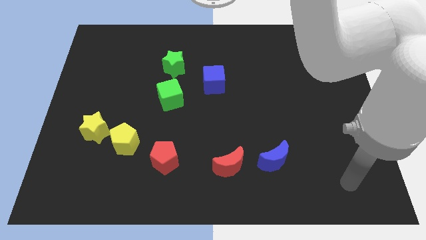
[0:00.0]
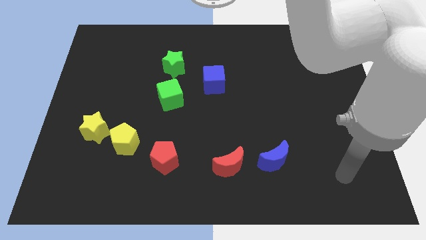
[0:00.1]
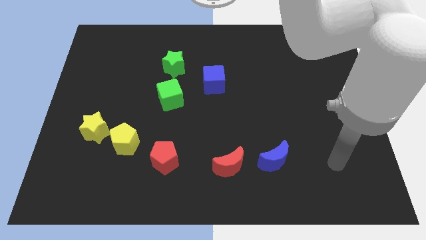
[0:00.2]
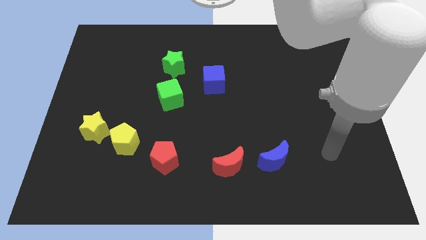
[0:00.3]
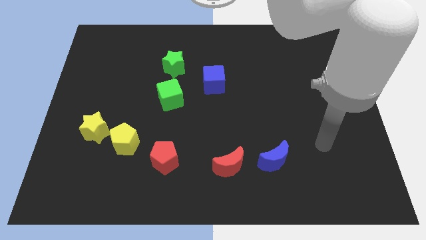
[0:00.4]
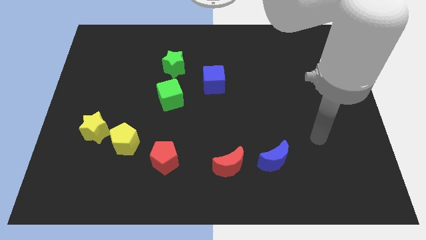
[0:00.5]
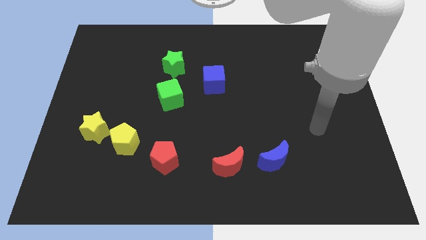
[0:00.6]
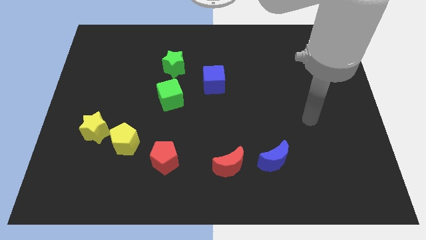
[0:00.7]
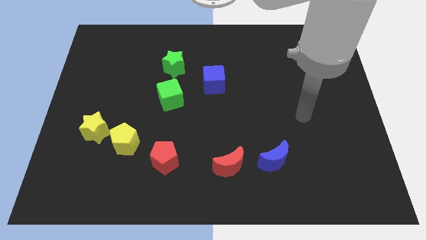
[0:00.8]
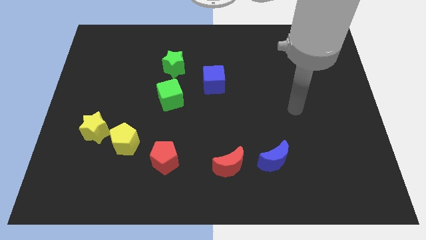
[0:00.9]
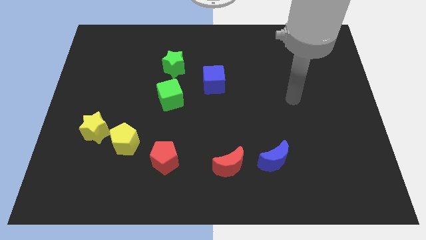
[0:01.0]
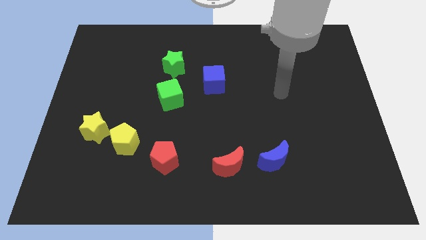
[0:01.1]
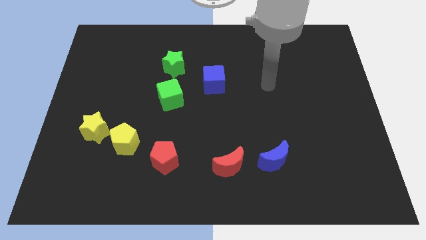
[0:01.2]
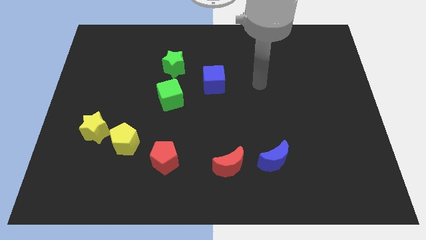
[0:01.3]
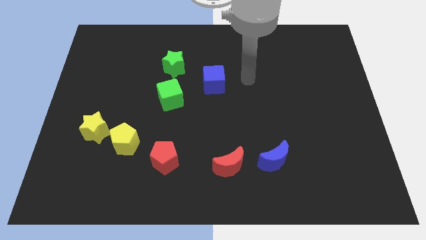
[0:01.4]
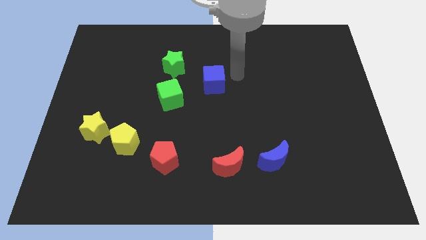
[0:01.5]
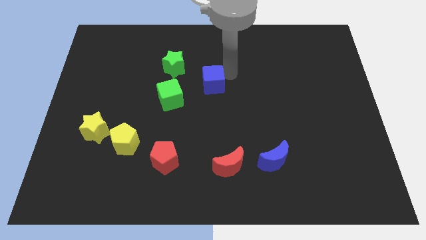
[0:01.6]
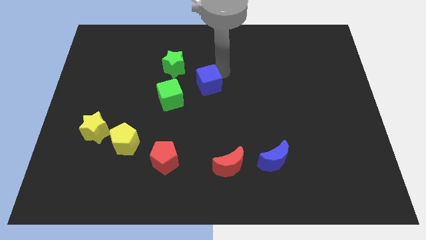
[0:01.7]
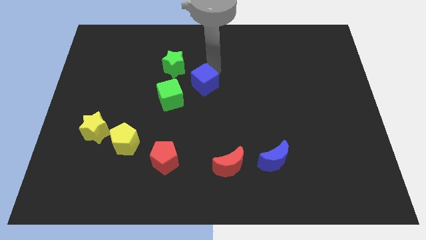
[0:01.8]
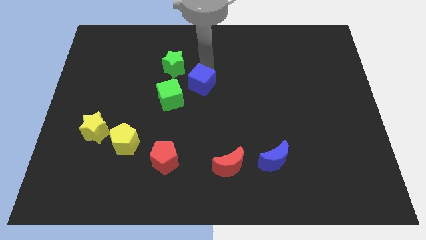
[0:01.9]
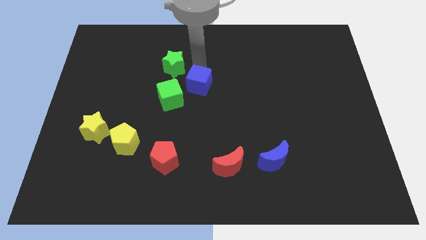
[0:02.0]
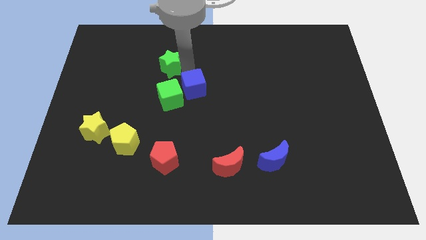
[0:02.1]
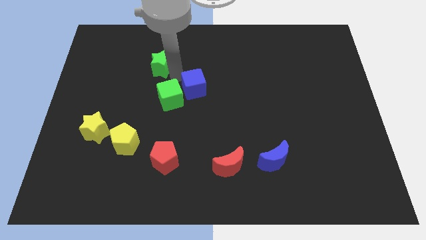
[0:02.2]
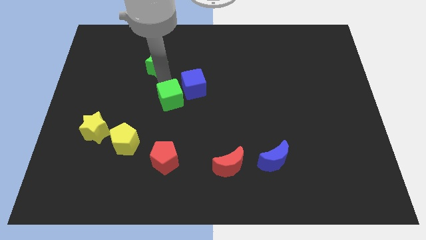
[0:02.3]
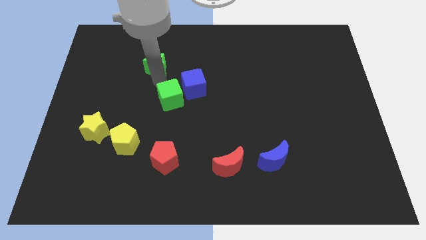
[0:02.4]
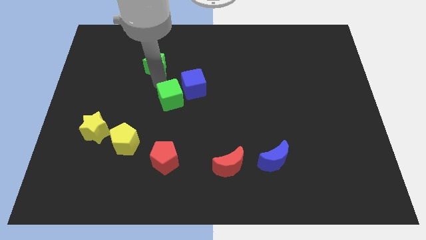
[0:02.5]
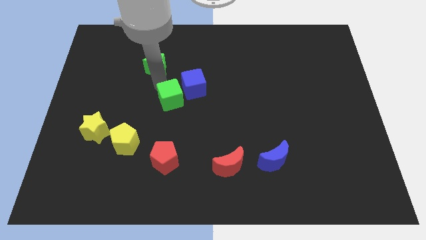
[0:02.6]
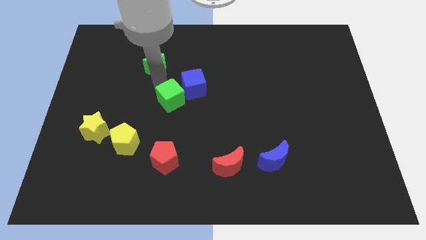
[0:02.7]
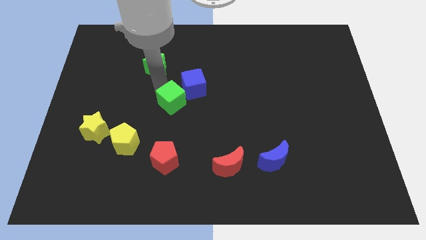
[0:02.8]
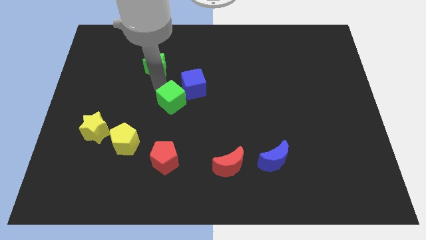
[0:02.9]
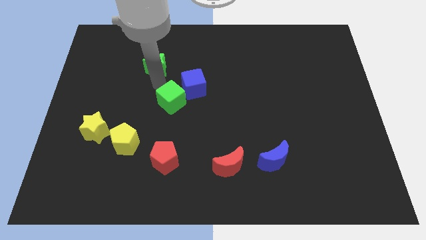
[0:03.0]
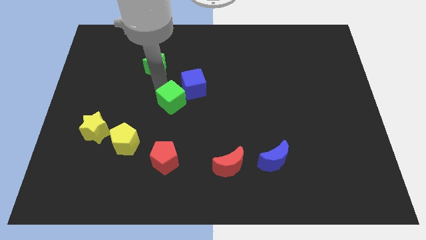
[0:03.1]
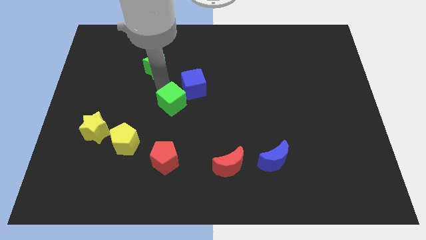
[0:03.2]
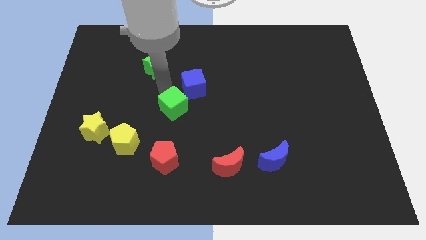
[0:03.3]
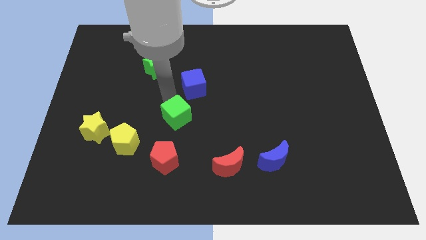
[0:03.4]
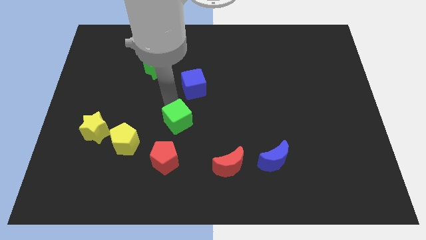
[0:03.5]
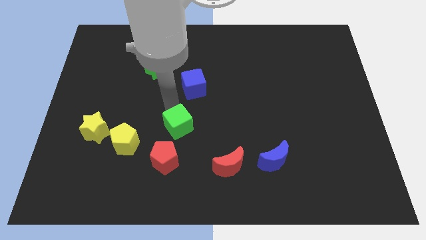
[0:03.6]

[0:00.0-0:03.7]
slightly slide the green cube down and to the right

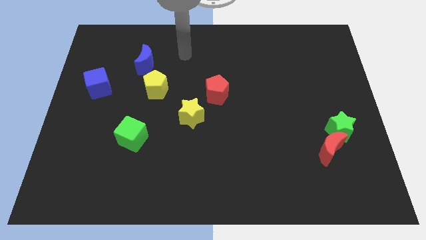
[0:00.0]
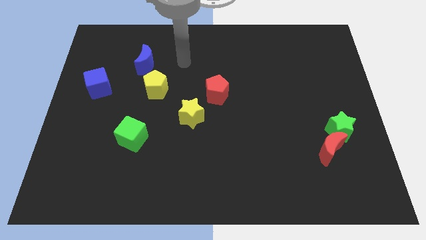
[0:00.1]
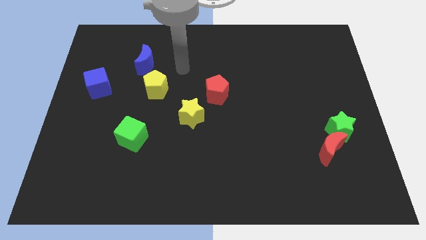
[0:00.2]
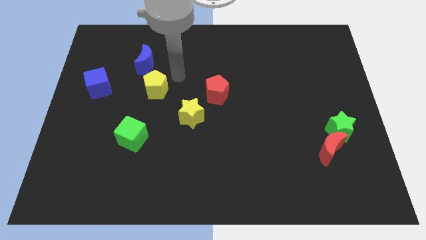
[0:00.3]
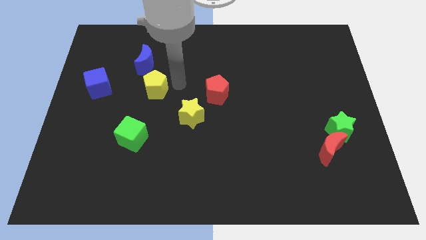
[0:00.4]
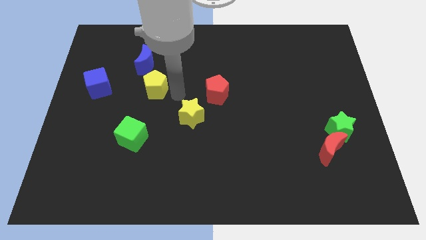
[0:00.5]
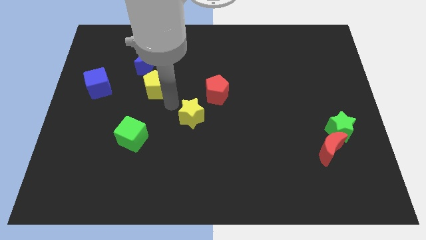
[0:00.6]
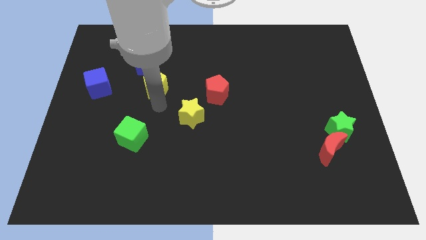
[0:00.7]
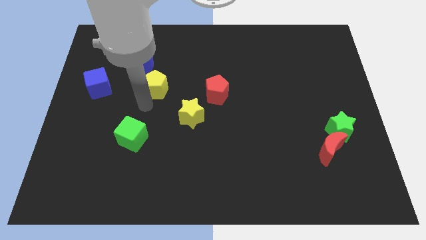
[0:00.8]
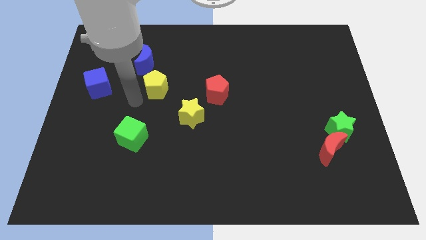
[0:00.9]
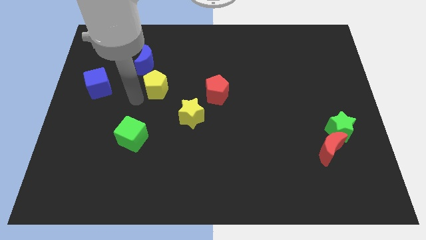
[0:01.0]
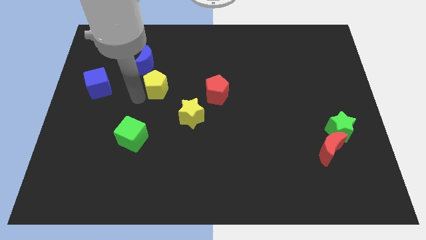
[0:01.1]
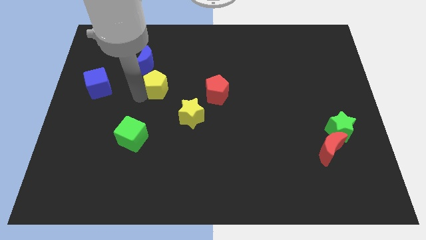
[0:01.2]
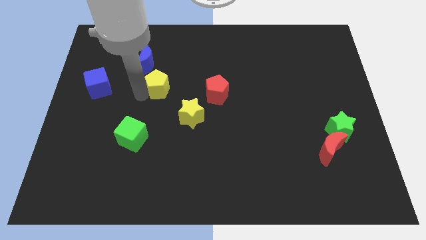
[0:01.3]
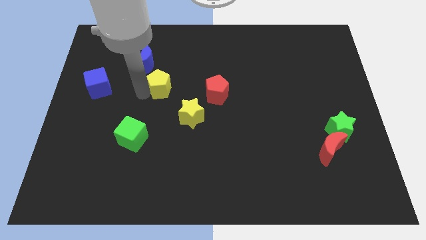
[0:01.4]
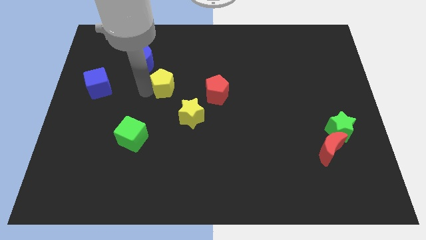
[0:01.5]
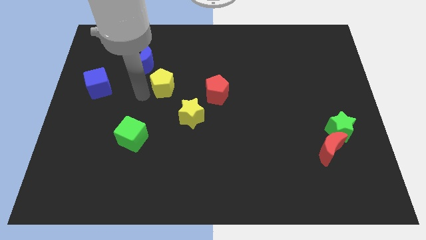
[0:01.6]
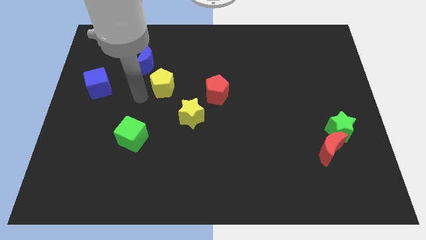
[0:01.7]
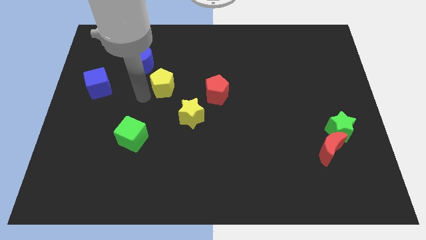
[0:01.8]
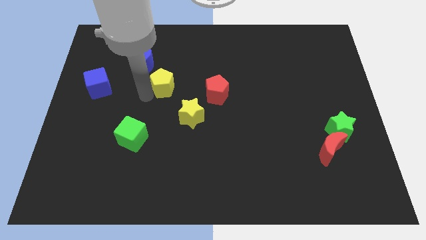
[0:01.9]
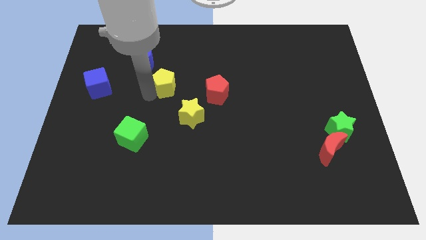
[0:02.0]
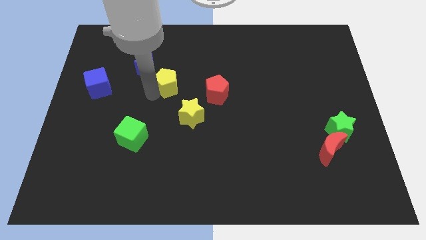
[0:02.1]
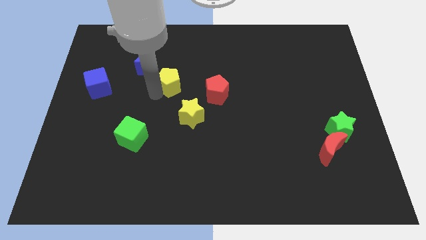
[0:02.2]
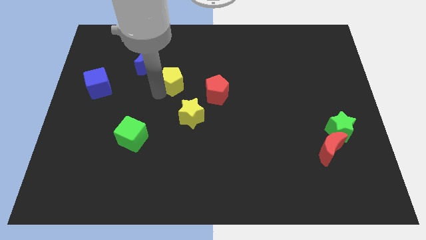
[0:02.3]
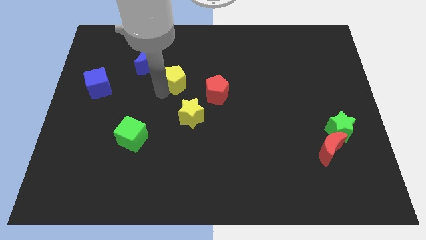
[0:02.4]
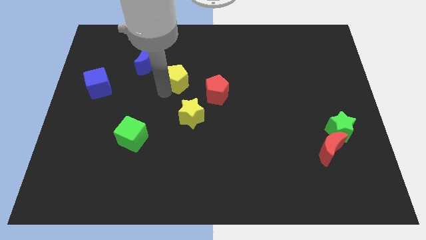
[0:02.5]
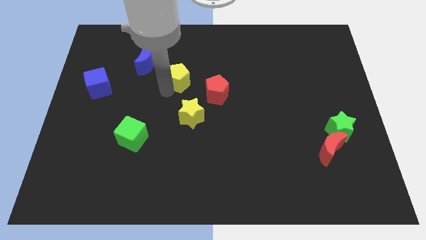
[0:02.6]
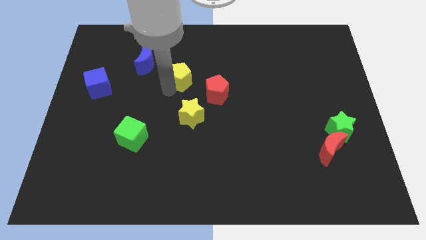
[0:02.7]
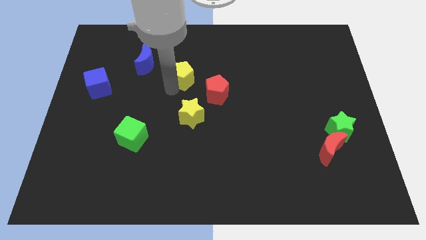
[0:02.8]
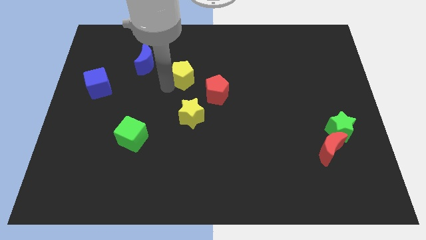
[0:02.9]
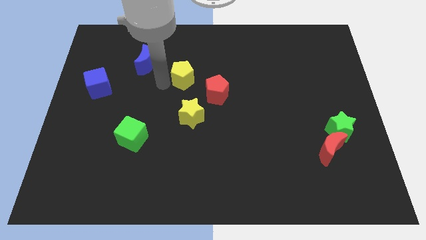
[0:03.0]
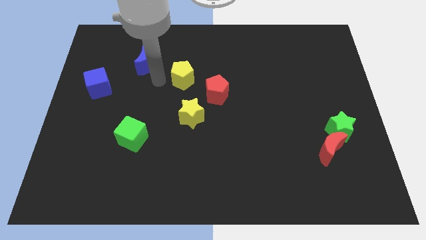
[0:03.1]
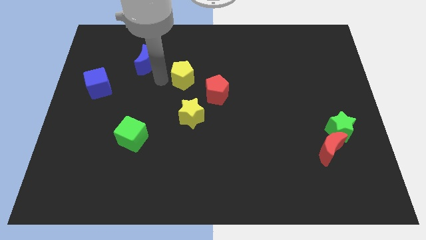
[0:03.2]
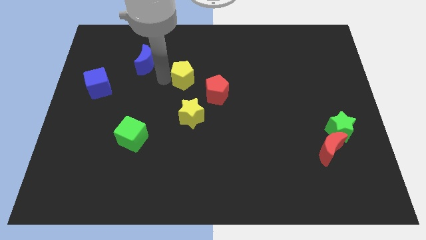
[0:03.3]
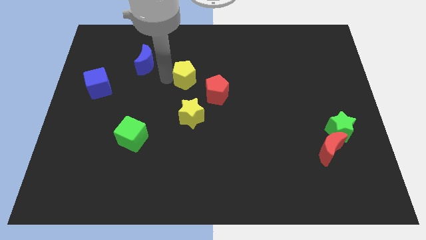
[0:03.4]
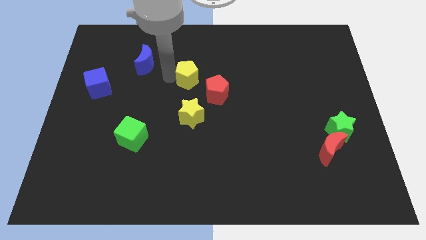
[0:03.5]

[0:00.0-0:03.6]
push the yellow pentagon right slightly

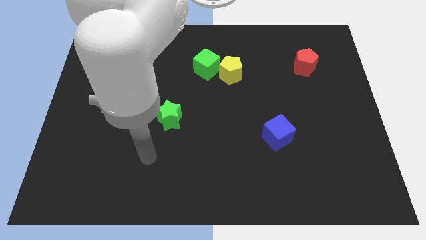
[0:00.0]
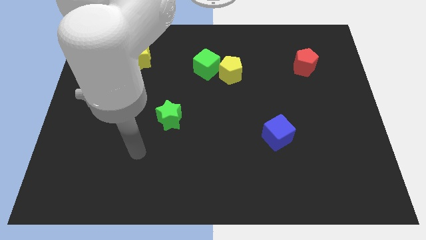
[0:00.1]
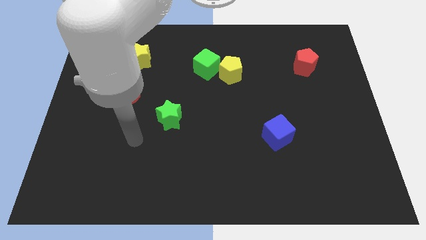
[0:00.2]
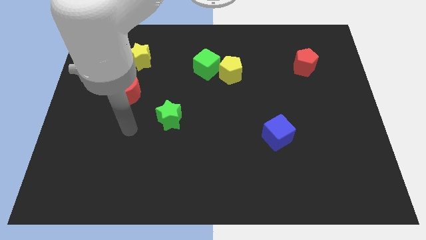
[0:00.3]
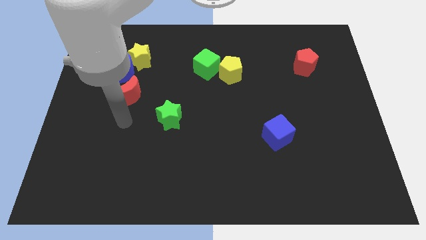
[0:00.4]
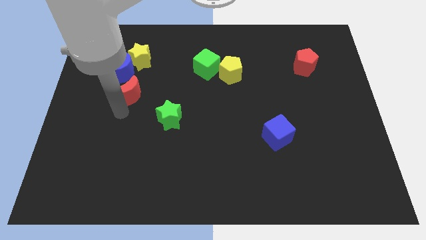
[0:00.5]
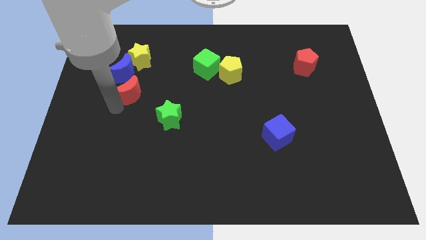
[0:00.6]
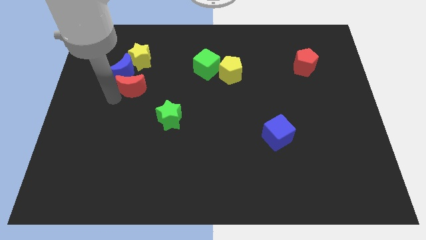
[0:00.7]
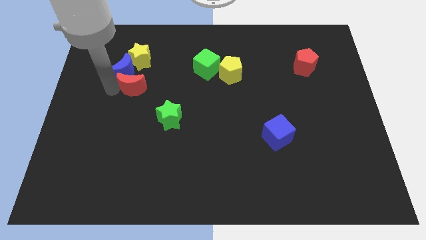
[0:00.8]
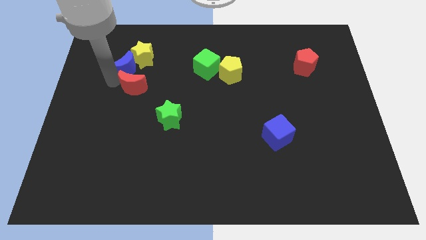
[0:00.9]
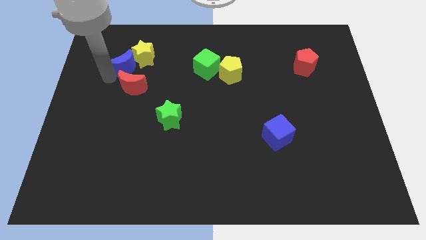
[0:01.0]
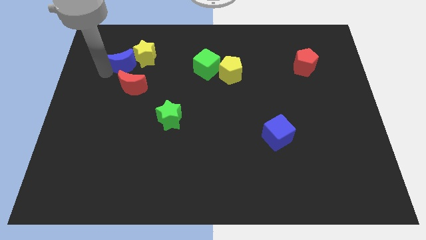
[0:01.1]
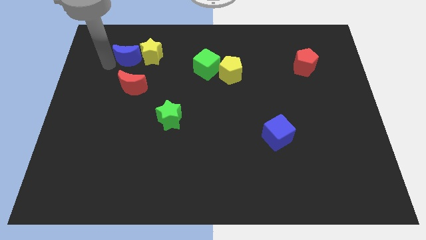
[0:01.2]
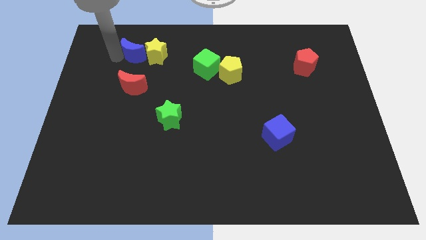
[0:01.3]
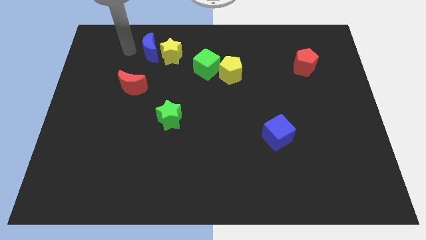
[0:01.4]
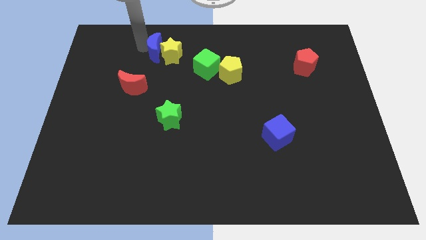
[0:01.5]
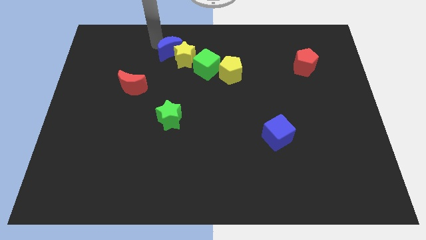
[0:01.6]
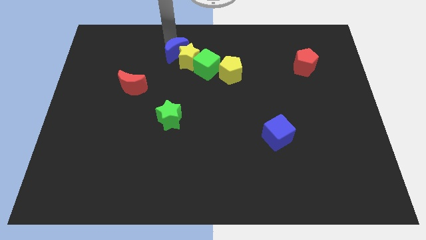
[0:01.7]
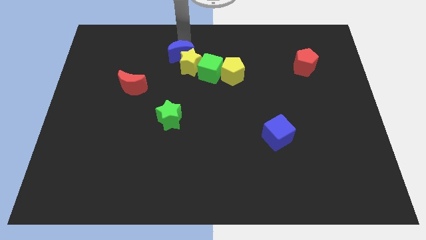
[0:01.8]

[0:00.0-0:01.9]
slightly push the yellow star downwards and to the right
